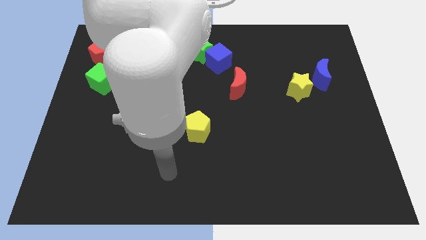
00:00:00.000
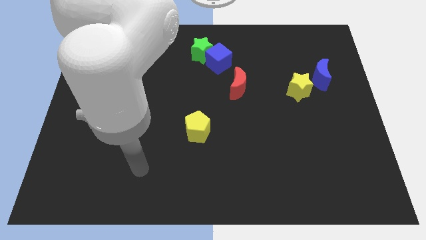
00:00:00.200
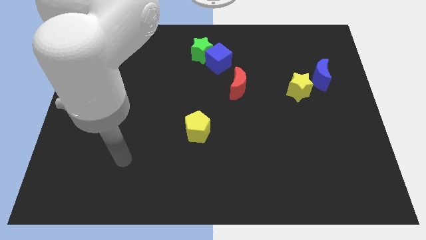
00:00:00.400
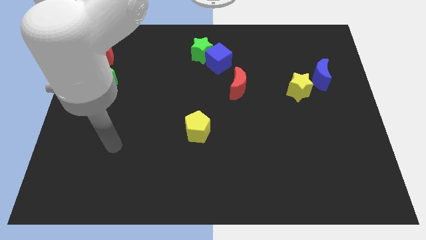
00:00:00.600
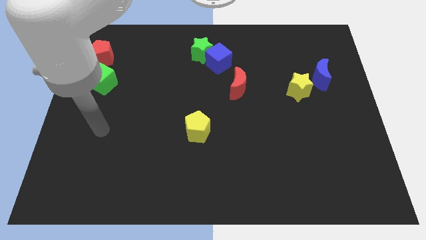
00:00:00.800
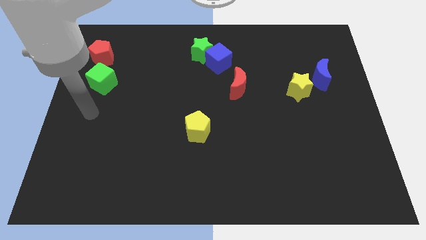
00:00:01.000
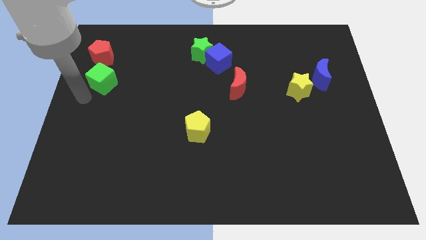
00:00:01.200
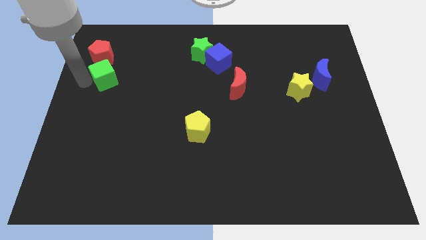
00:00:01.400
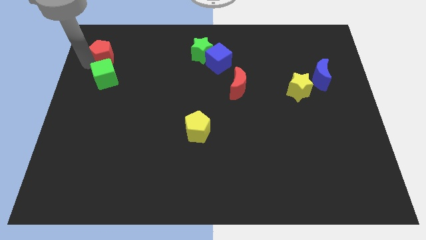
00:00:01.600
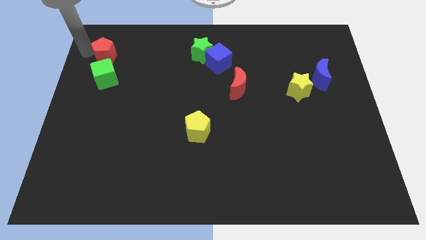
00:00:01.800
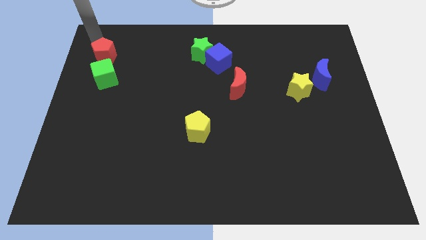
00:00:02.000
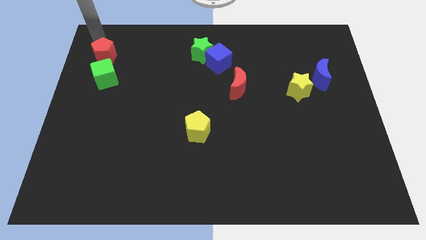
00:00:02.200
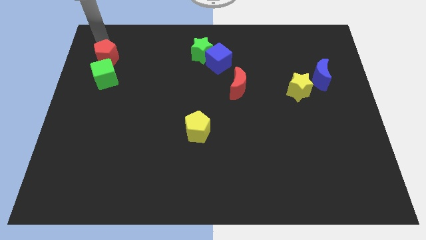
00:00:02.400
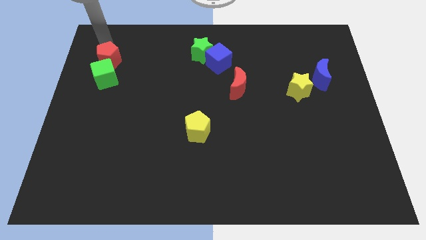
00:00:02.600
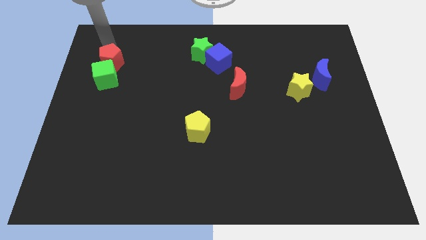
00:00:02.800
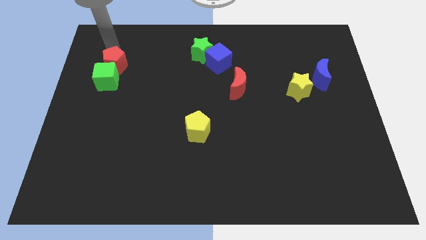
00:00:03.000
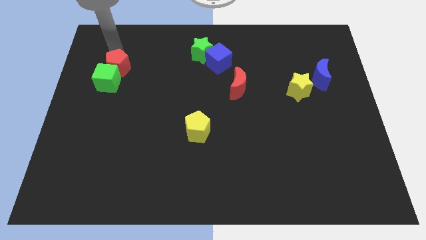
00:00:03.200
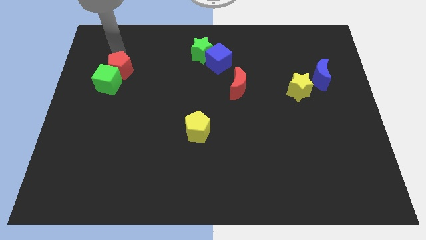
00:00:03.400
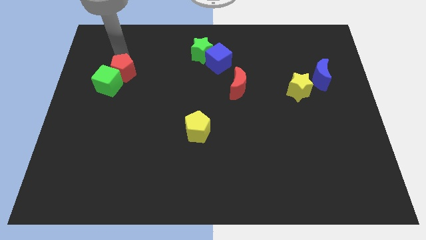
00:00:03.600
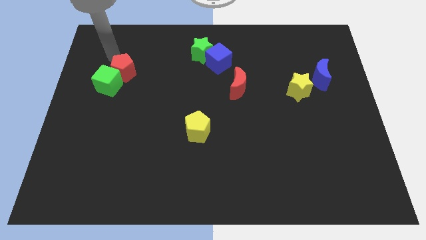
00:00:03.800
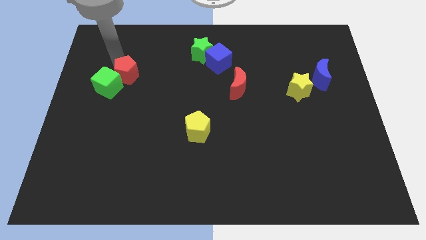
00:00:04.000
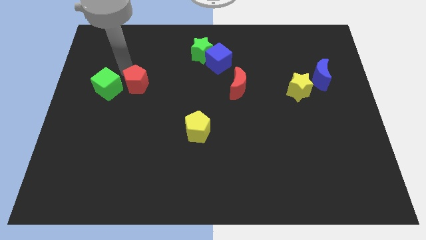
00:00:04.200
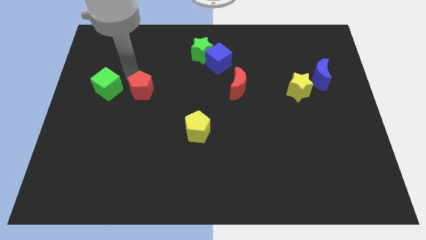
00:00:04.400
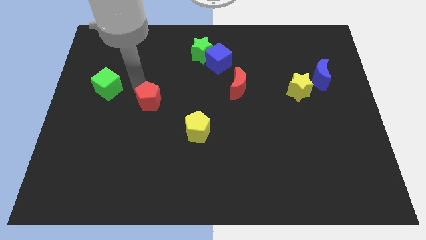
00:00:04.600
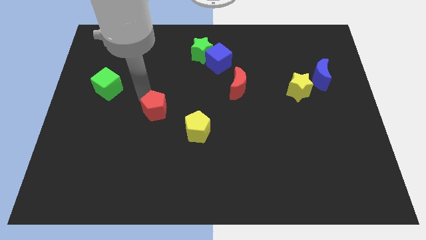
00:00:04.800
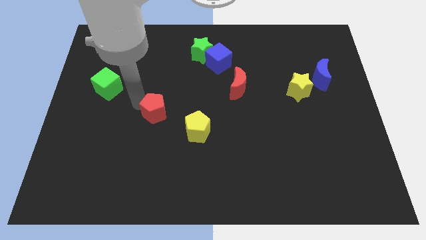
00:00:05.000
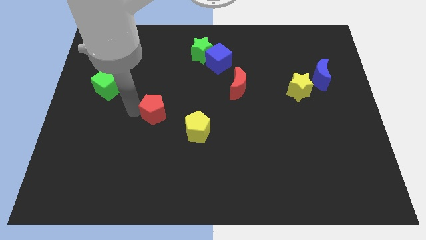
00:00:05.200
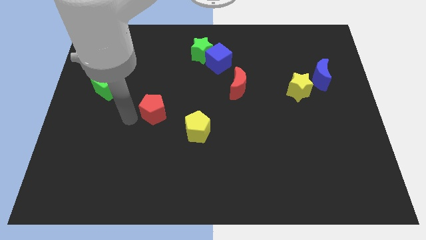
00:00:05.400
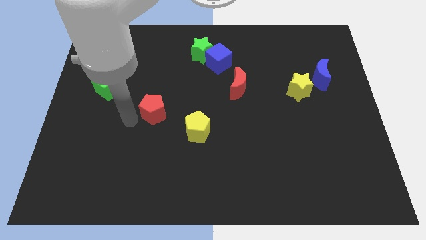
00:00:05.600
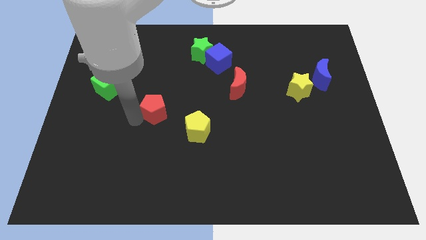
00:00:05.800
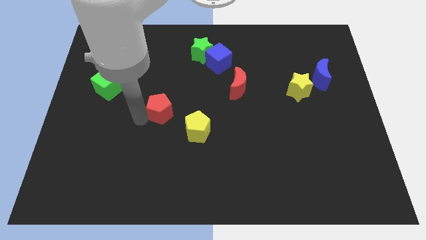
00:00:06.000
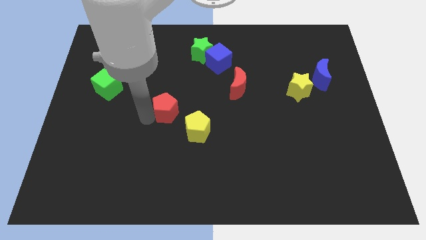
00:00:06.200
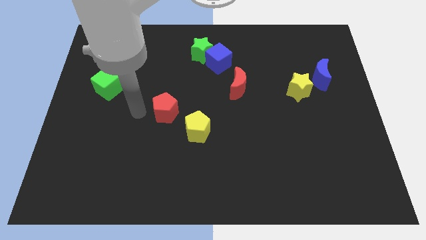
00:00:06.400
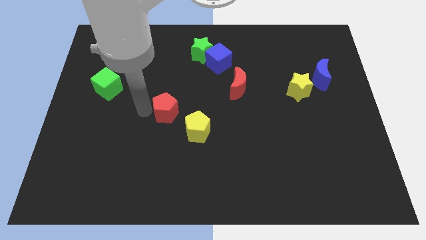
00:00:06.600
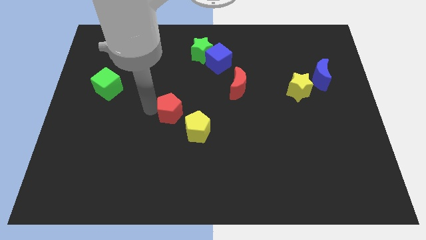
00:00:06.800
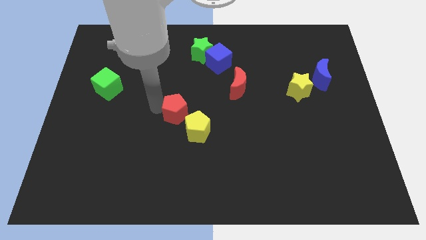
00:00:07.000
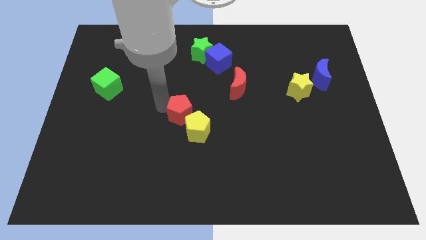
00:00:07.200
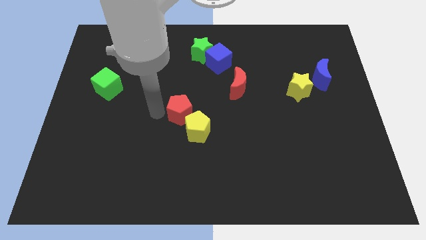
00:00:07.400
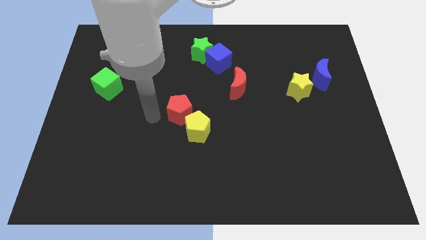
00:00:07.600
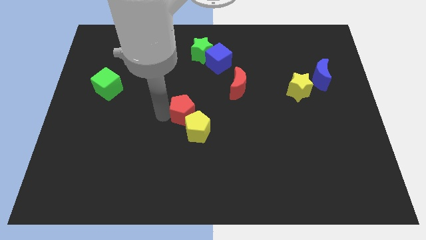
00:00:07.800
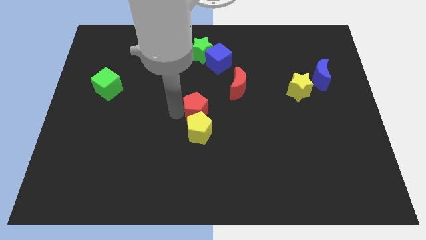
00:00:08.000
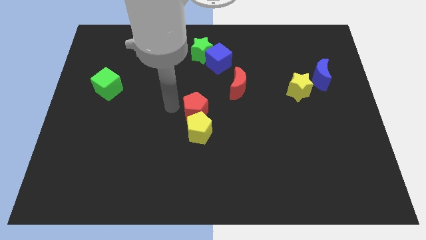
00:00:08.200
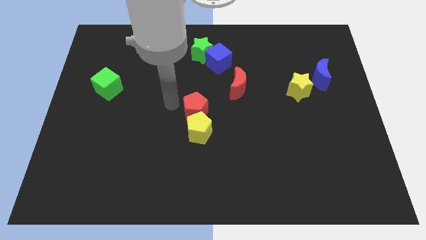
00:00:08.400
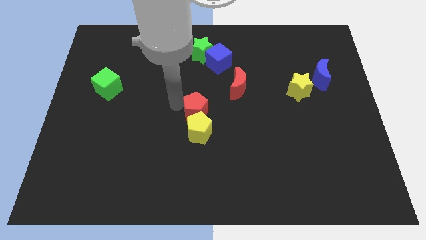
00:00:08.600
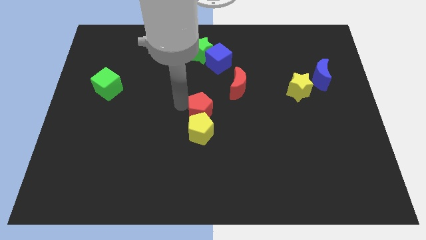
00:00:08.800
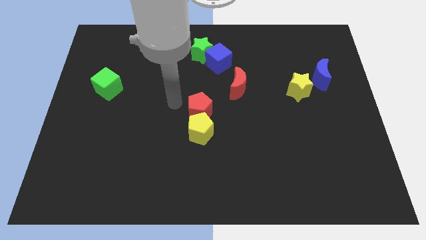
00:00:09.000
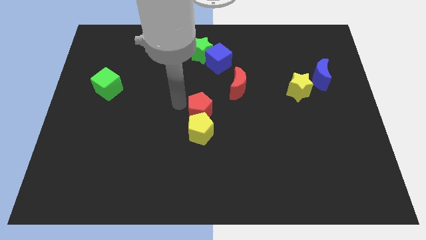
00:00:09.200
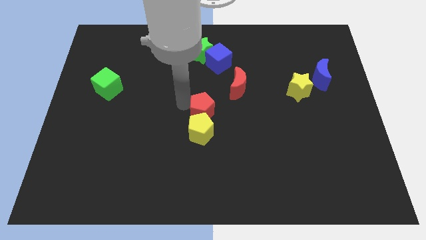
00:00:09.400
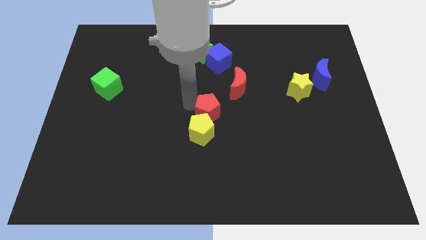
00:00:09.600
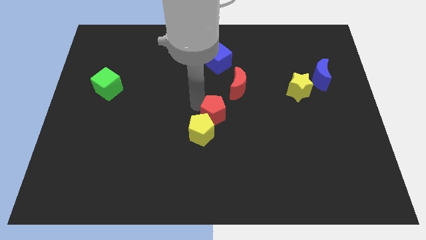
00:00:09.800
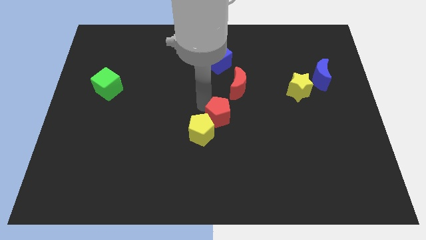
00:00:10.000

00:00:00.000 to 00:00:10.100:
slide the red pentagon below the red moon

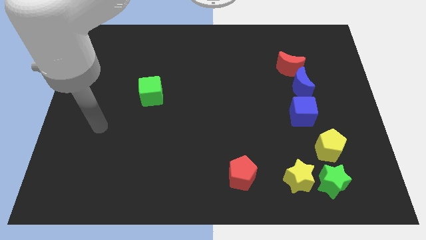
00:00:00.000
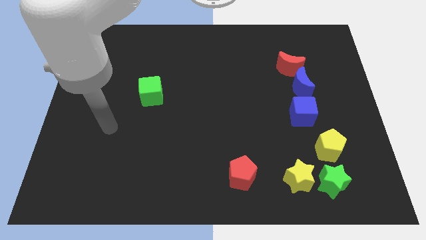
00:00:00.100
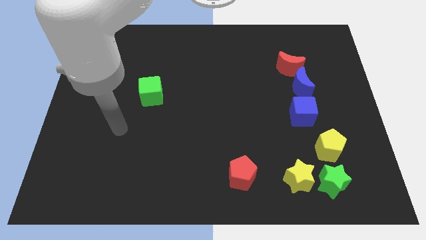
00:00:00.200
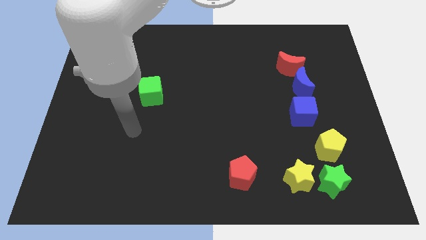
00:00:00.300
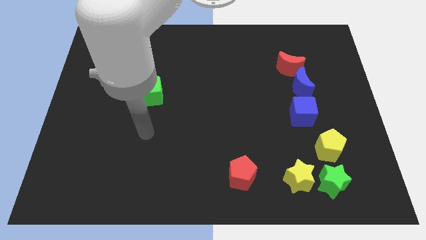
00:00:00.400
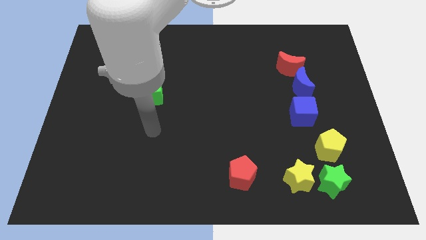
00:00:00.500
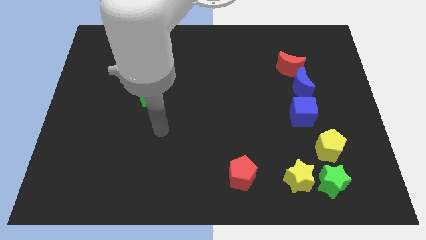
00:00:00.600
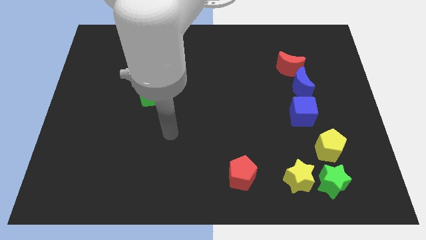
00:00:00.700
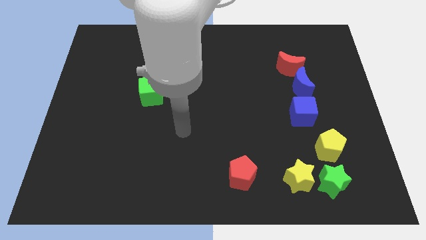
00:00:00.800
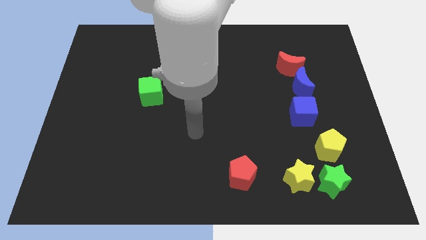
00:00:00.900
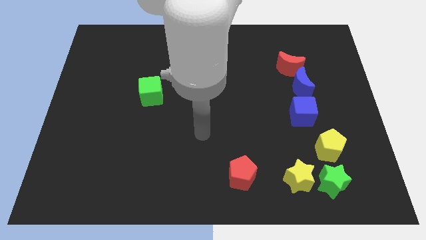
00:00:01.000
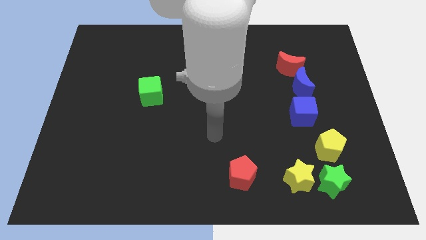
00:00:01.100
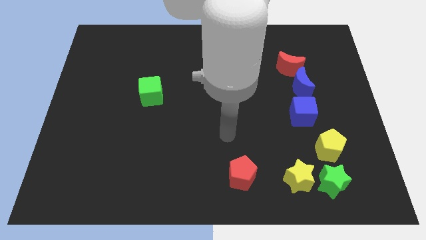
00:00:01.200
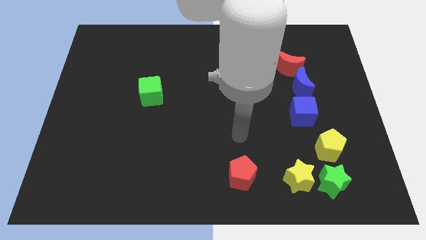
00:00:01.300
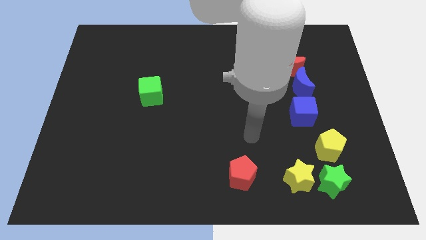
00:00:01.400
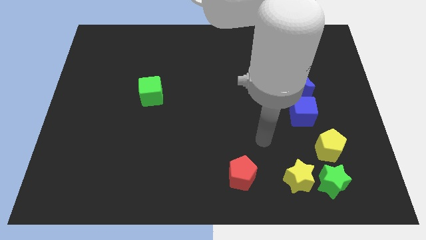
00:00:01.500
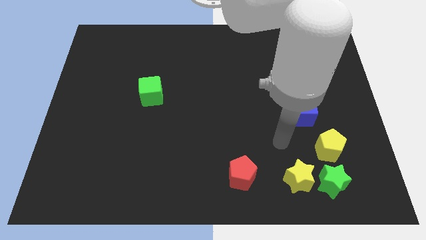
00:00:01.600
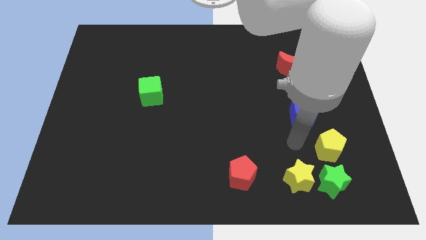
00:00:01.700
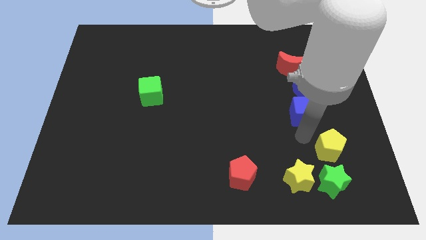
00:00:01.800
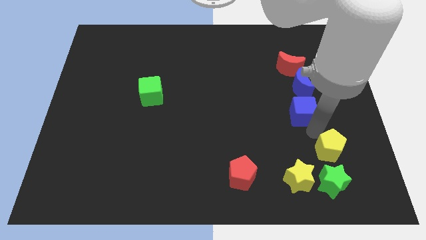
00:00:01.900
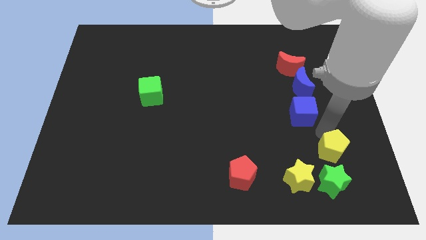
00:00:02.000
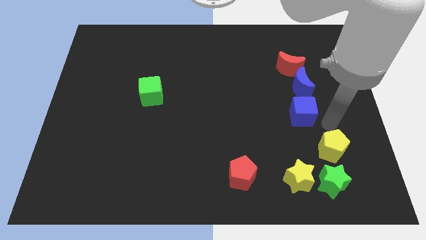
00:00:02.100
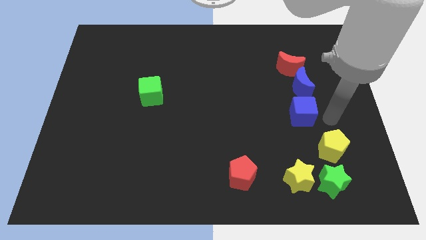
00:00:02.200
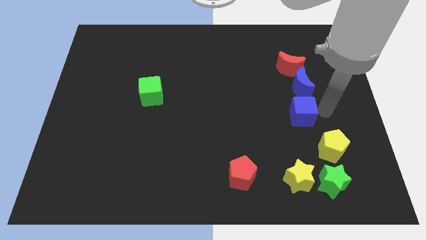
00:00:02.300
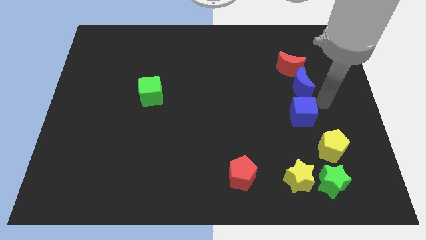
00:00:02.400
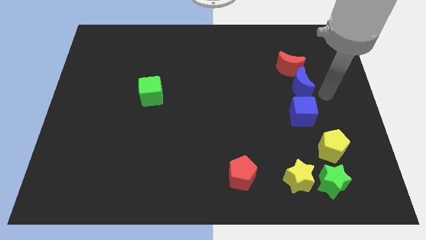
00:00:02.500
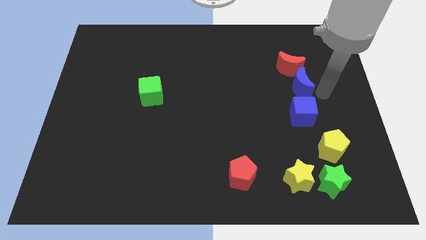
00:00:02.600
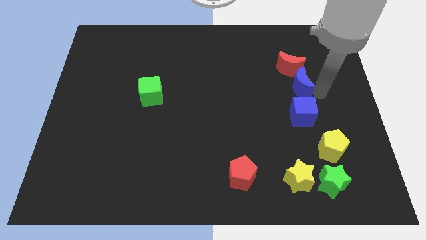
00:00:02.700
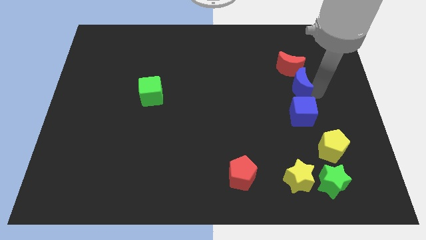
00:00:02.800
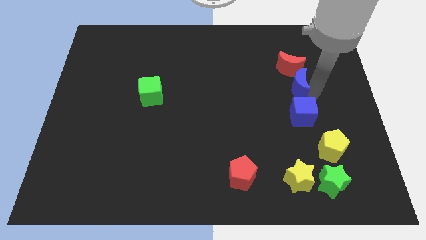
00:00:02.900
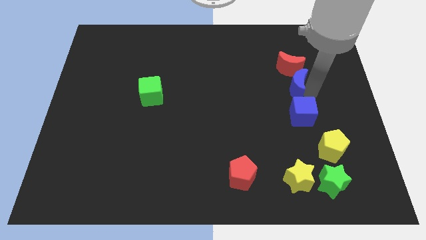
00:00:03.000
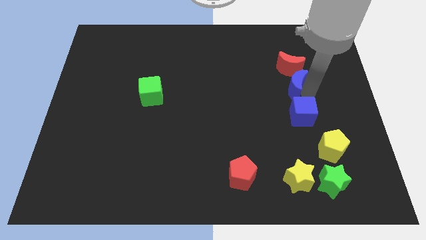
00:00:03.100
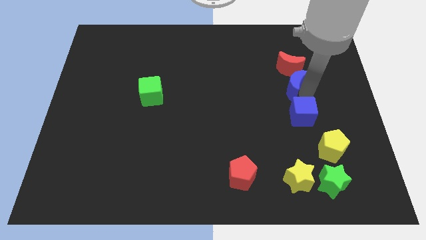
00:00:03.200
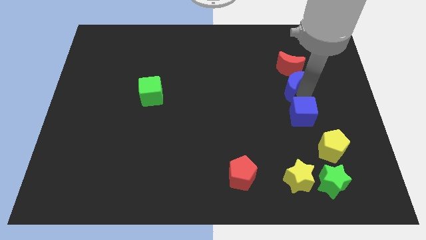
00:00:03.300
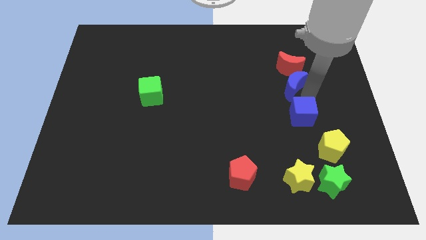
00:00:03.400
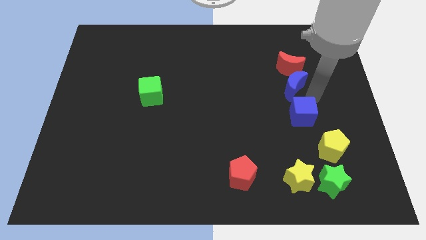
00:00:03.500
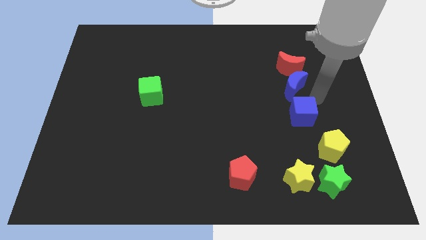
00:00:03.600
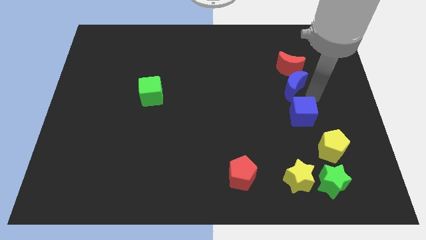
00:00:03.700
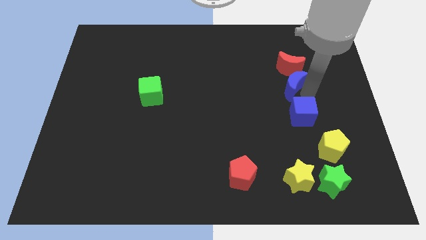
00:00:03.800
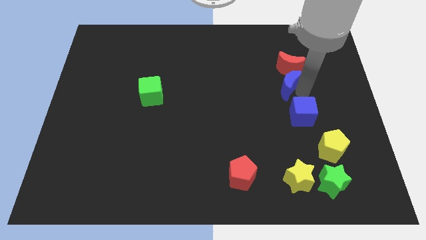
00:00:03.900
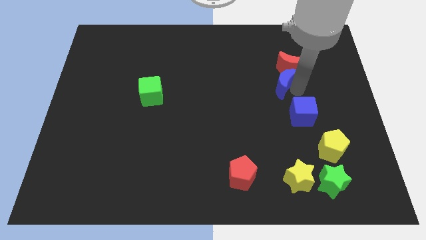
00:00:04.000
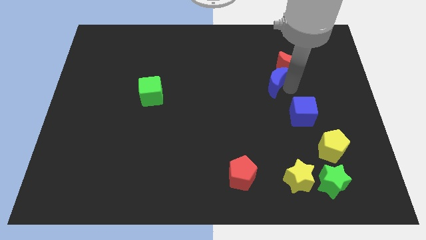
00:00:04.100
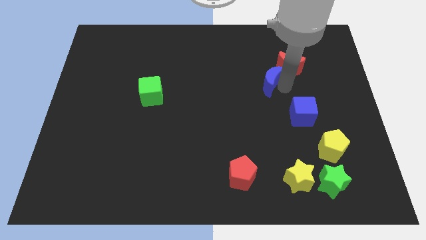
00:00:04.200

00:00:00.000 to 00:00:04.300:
push the blue moon left of the red moon
